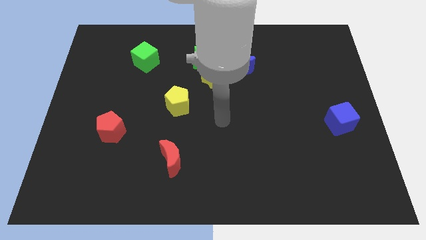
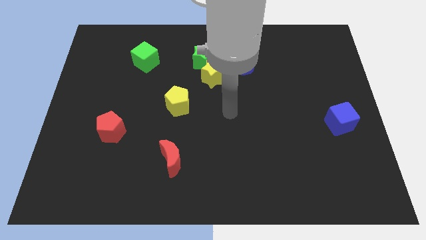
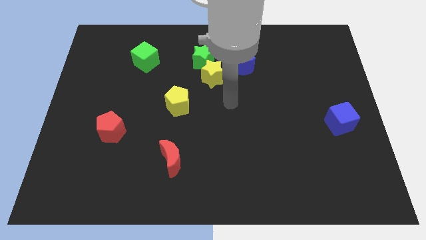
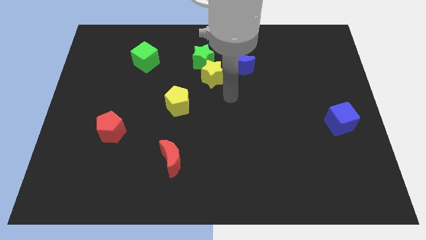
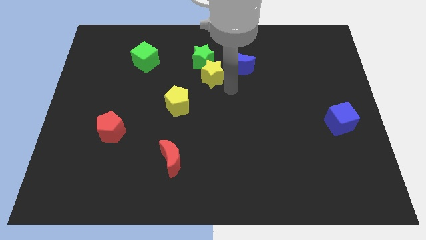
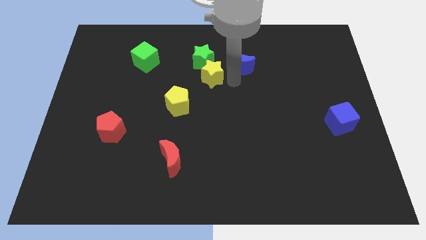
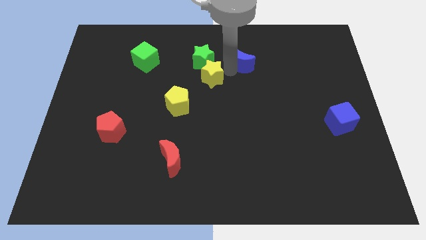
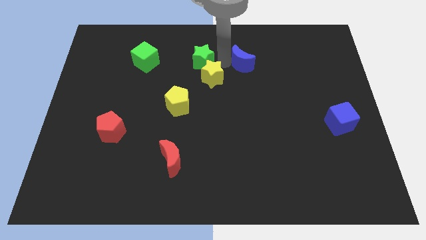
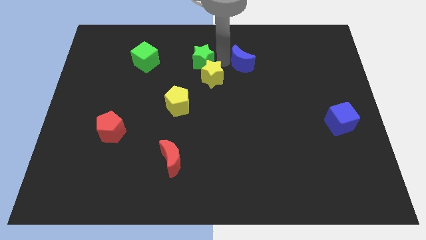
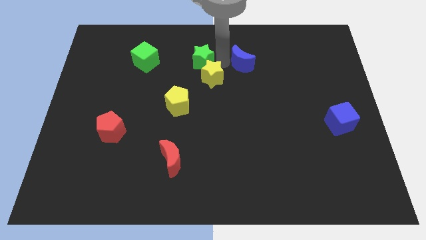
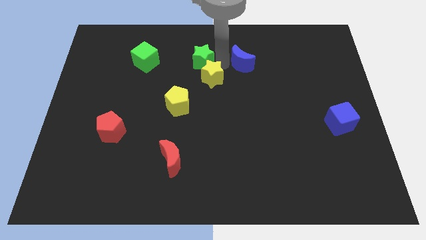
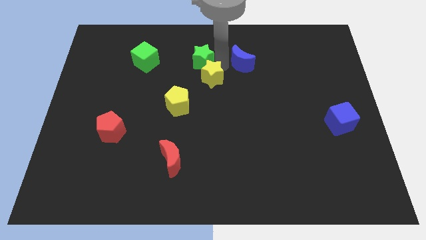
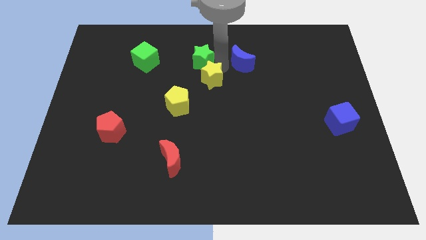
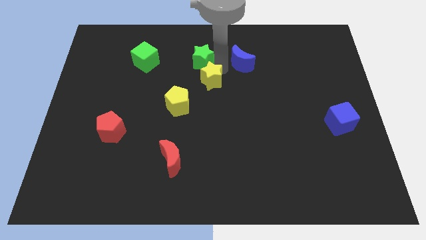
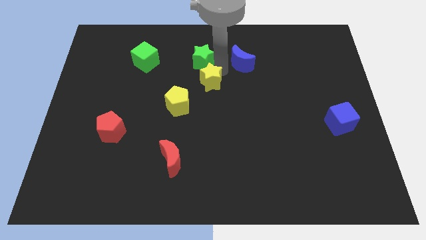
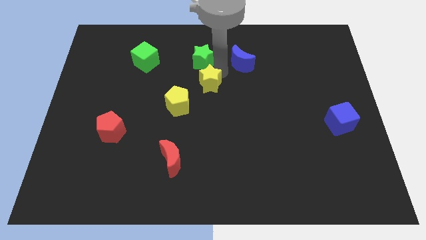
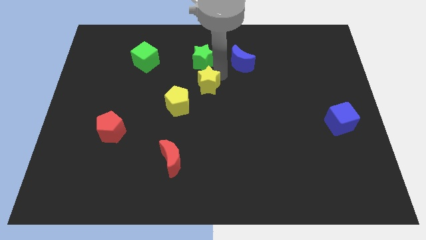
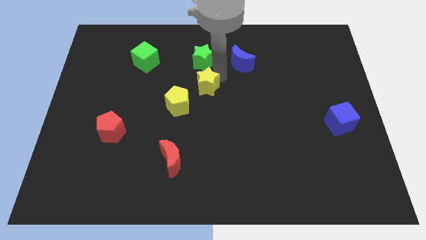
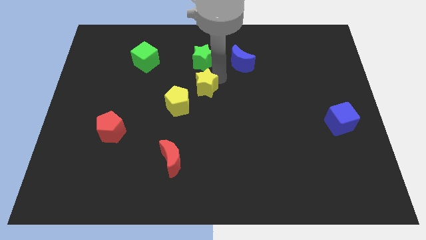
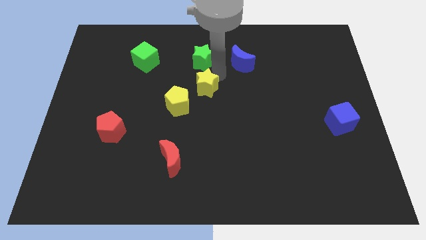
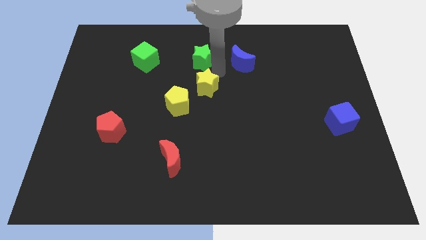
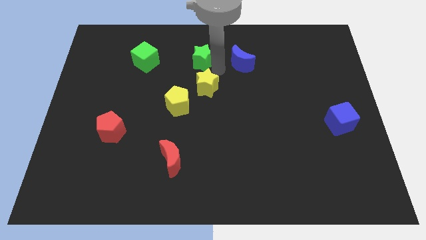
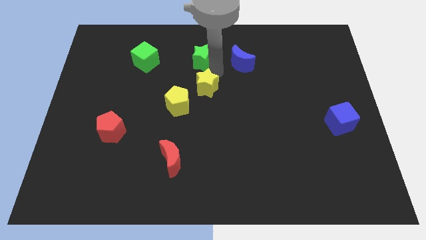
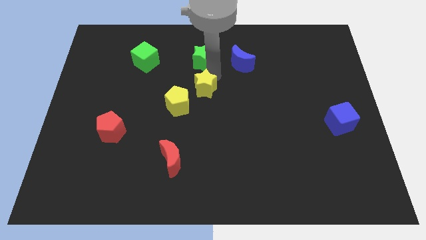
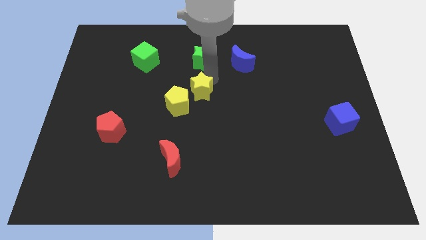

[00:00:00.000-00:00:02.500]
pull the yellow star apart from the green star and blue moon

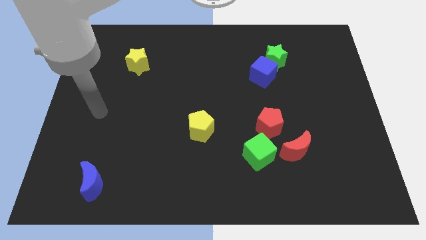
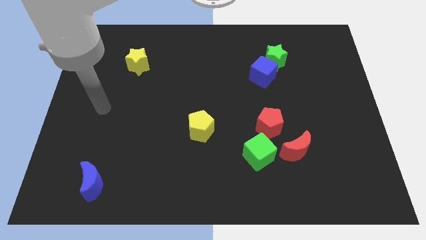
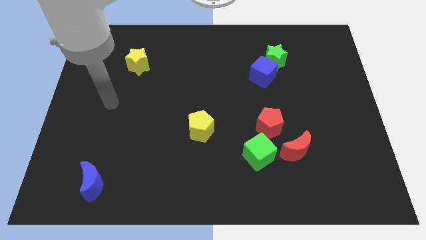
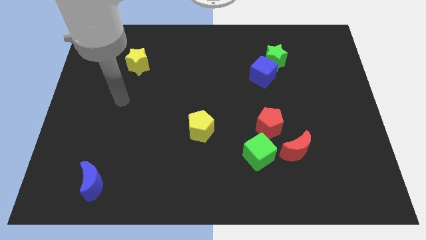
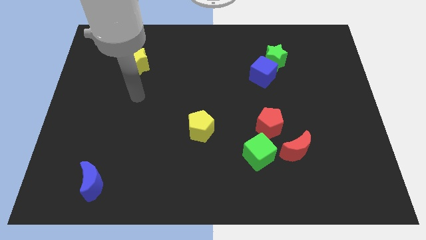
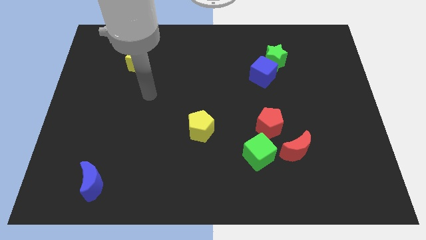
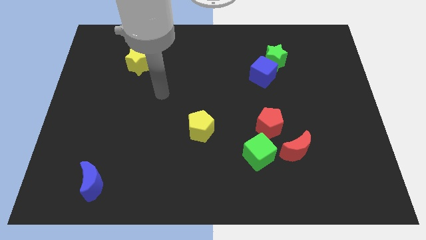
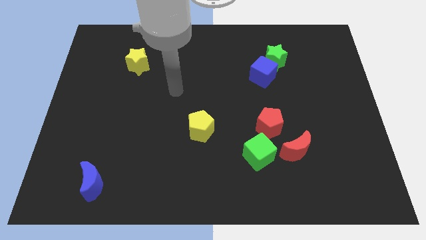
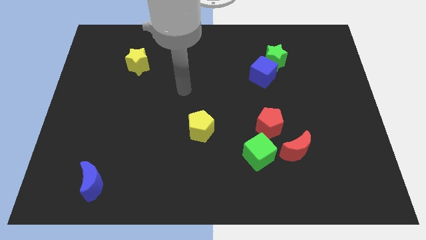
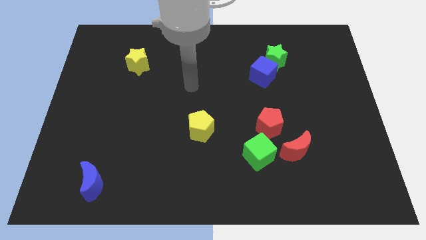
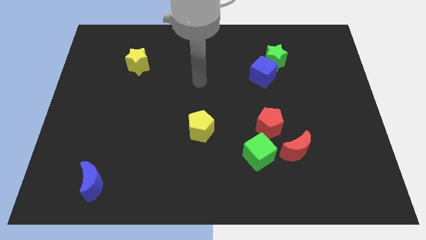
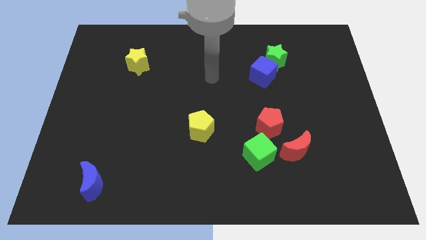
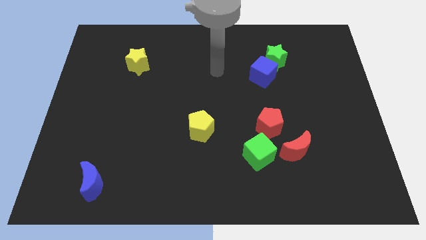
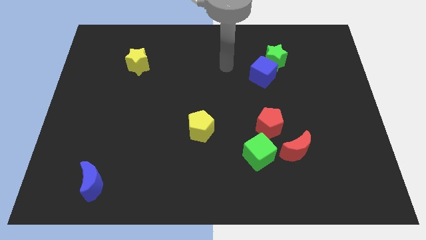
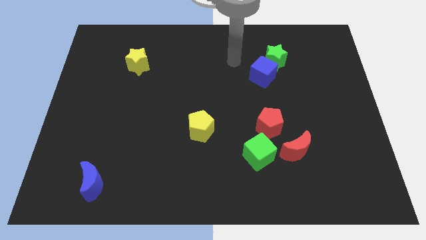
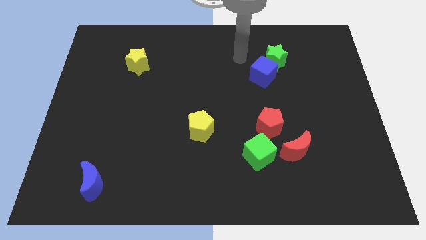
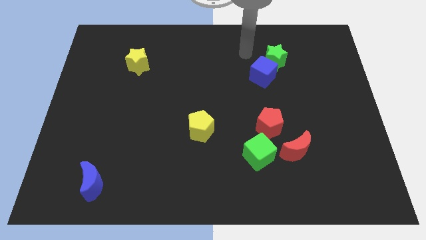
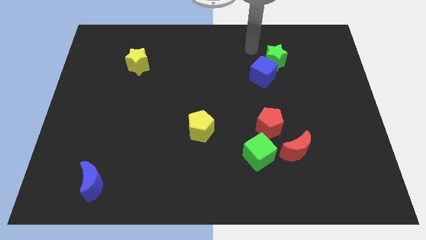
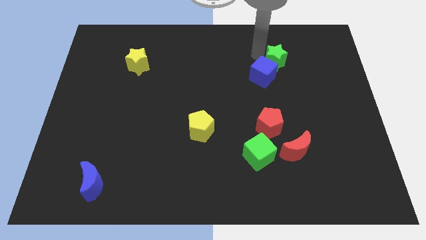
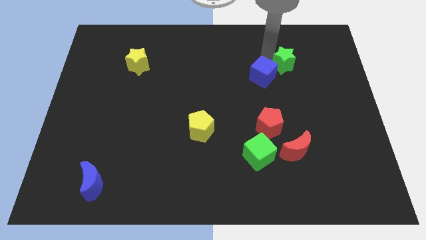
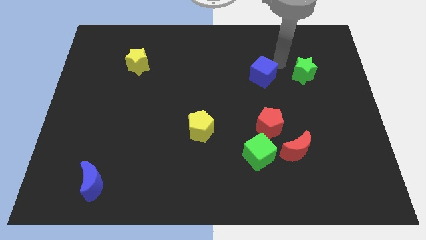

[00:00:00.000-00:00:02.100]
separate the blue cube from the green star

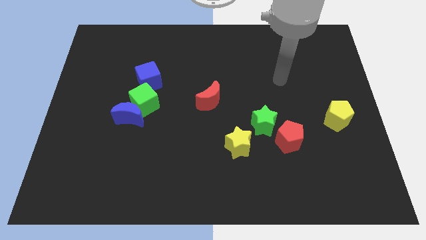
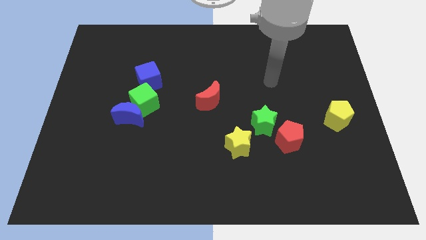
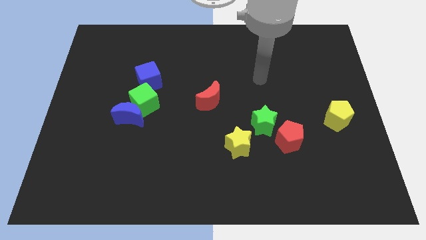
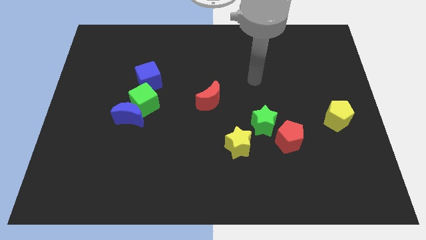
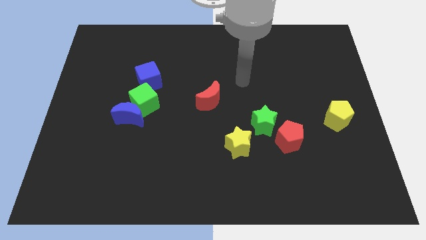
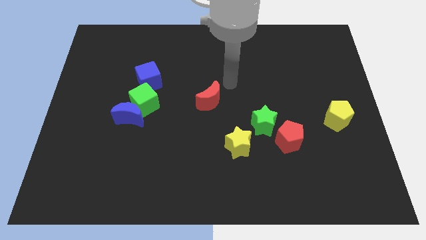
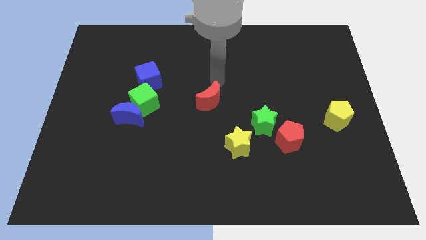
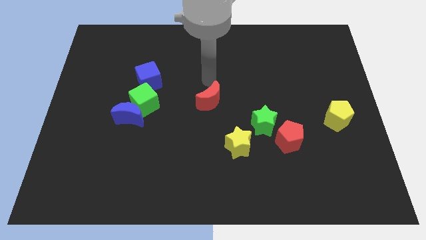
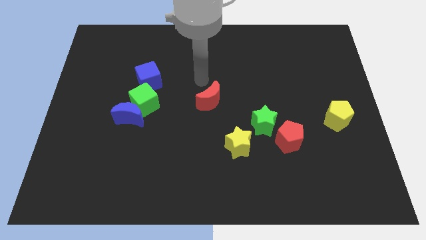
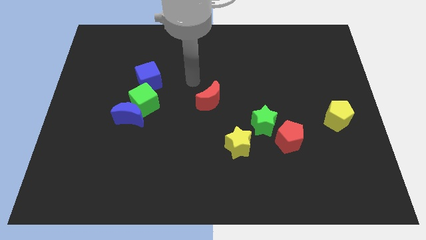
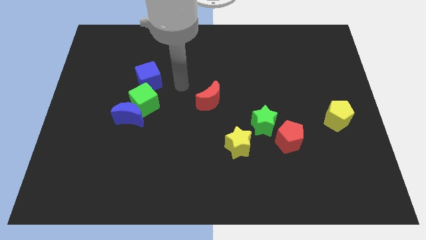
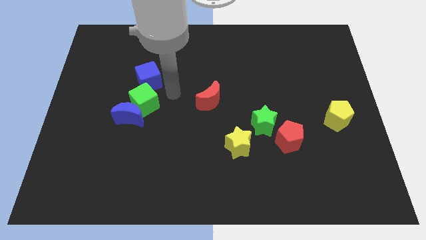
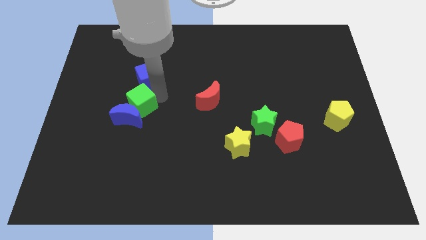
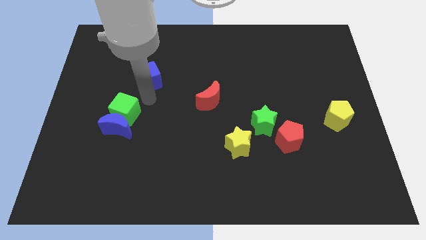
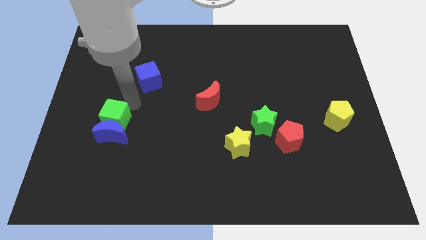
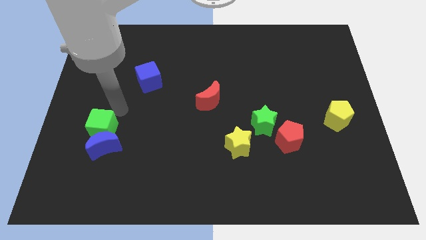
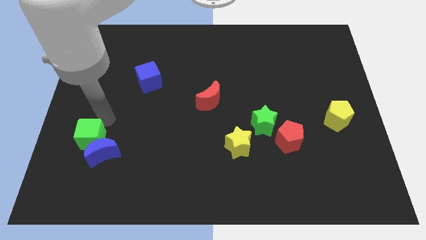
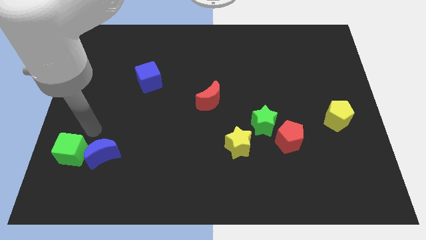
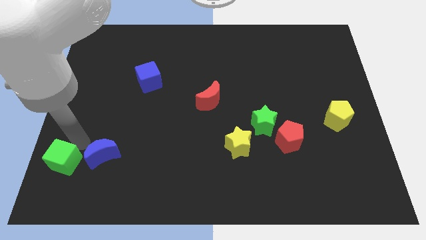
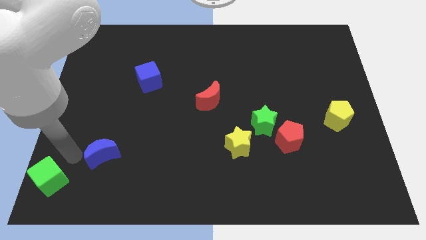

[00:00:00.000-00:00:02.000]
separate the blue moon from the green cube

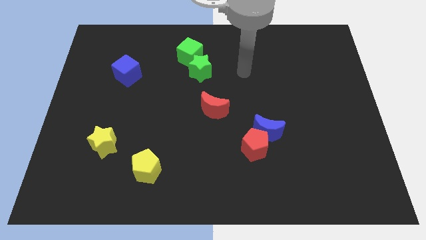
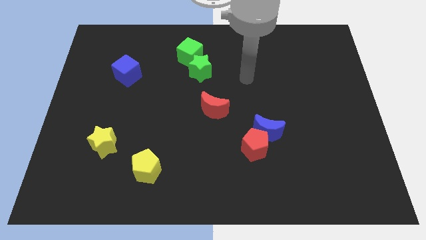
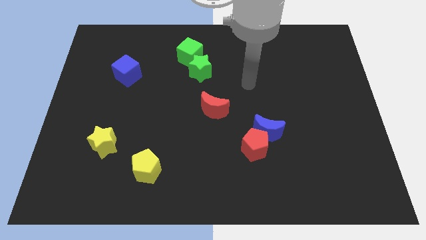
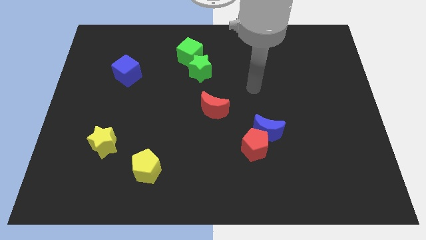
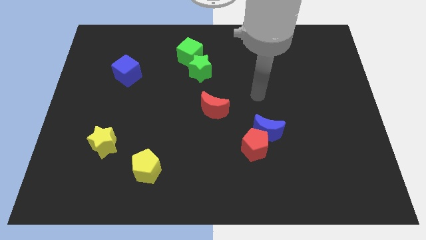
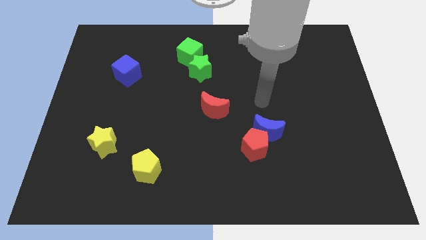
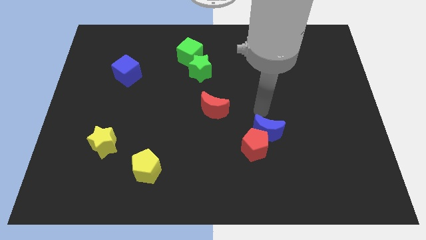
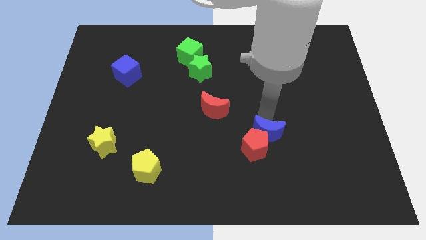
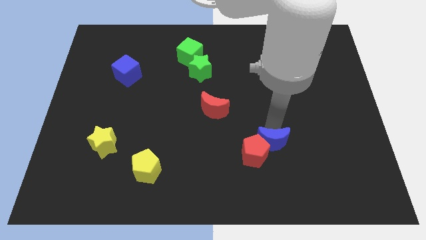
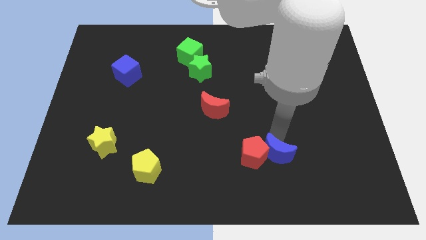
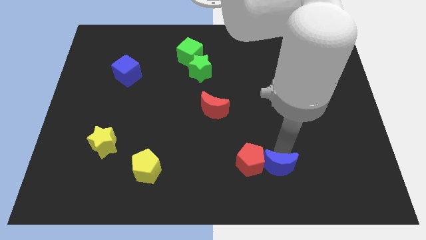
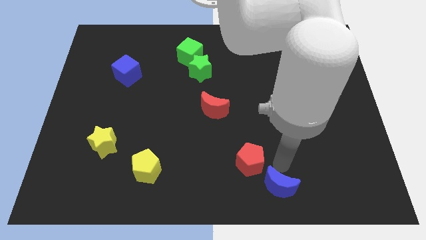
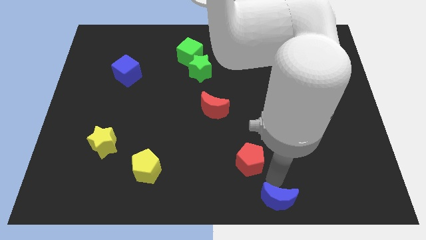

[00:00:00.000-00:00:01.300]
pull the red pentagon apart from the blue moon

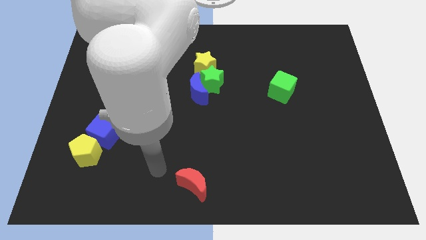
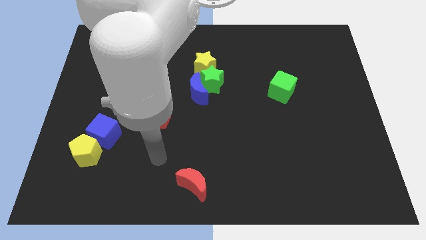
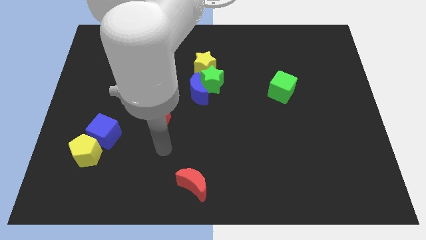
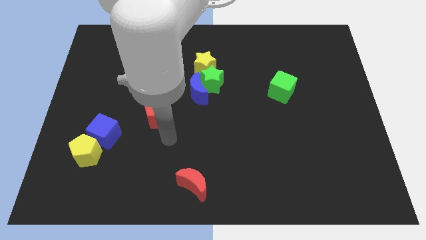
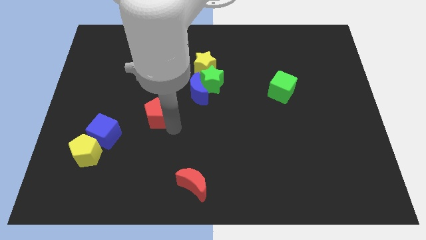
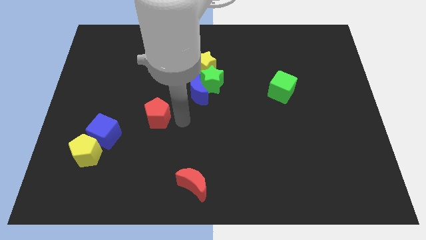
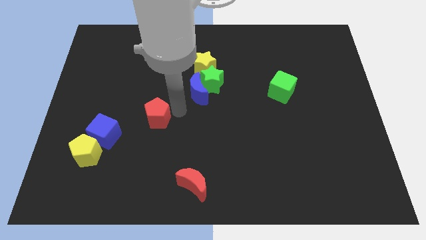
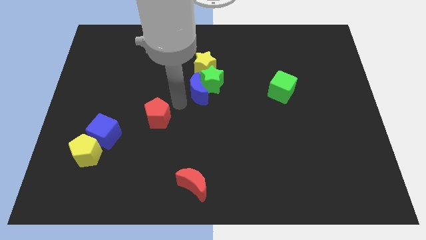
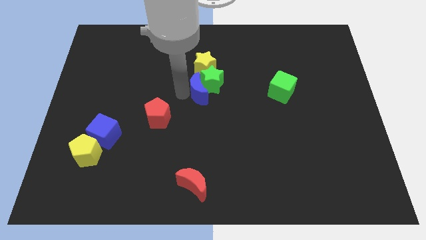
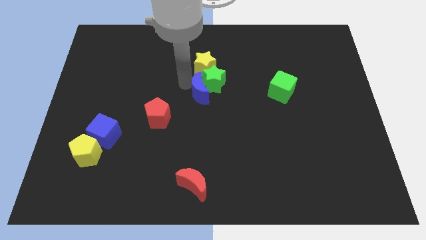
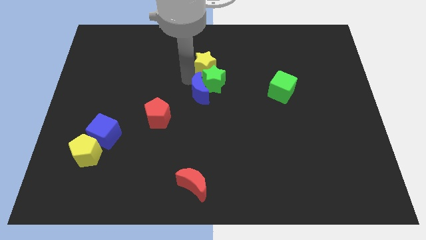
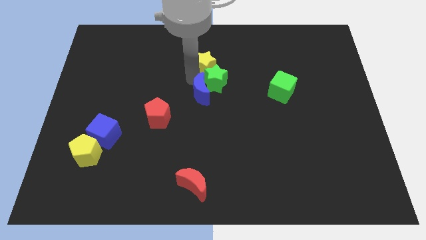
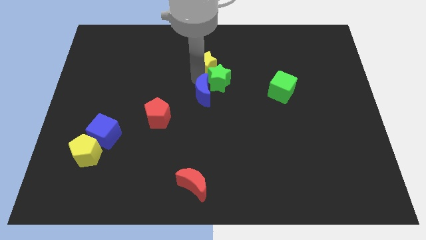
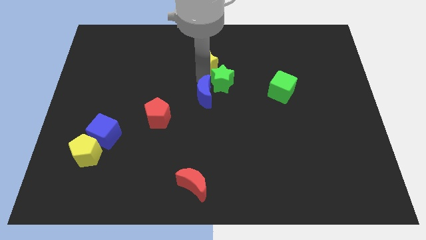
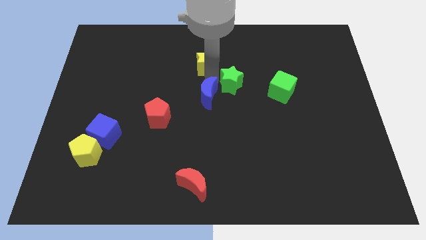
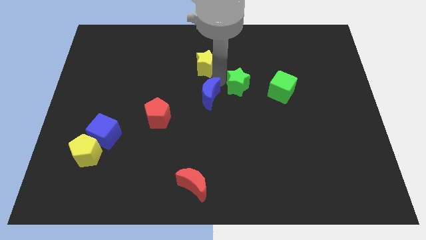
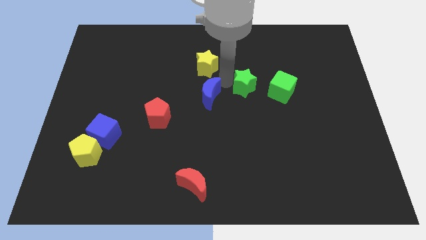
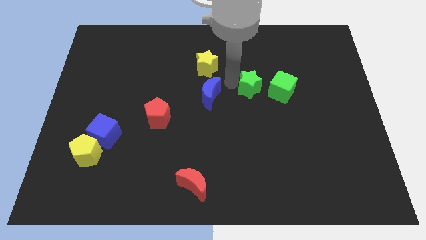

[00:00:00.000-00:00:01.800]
separate the green star from the blue moon and yellow star
